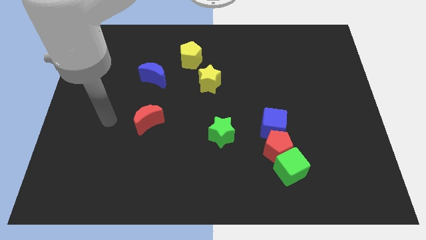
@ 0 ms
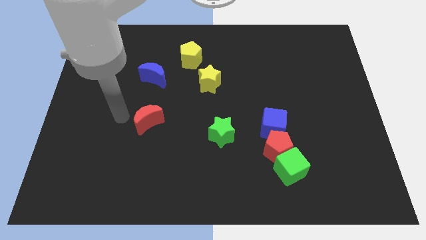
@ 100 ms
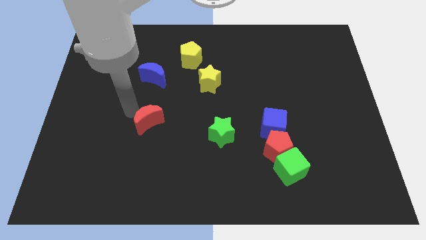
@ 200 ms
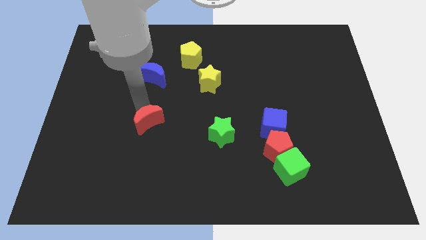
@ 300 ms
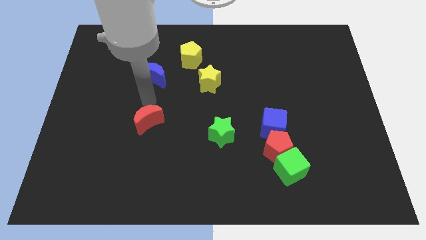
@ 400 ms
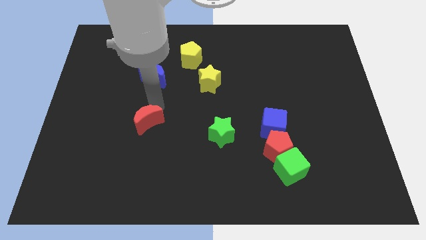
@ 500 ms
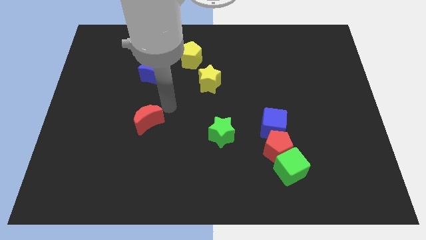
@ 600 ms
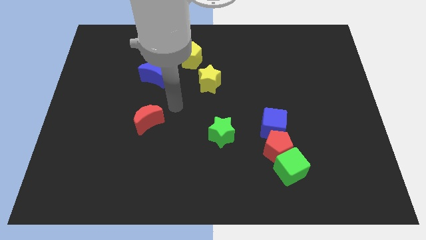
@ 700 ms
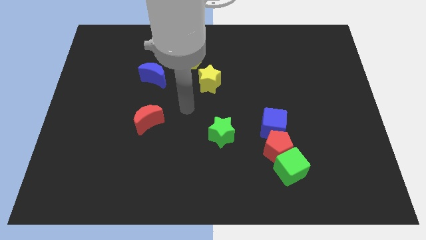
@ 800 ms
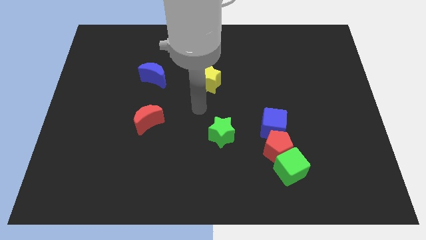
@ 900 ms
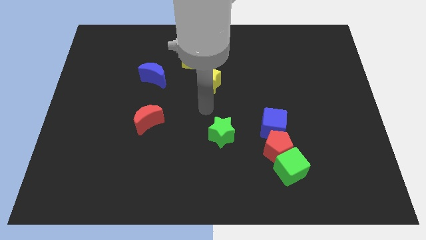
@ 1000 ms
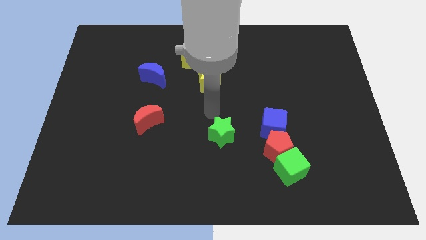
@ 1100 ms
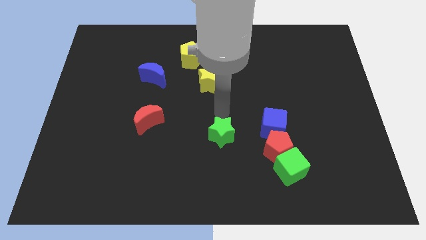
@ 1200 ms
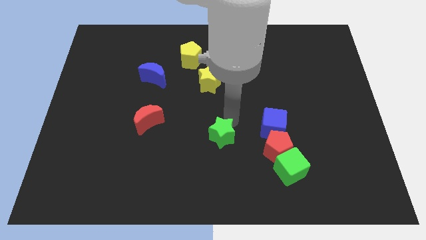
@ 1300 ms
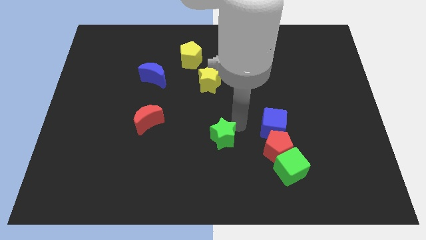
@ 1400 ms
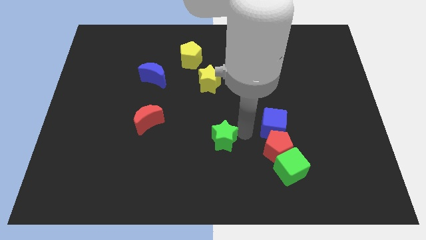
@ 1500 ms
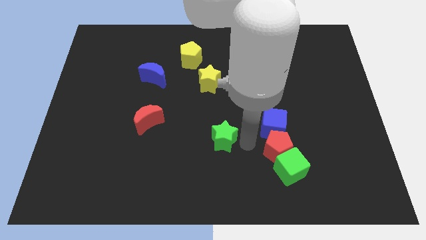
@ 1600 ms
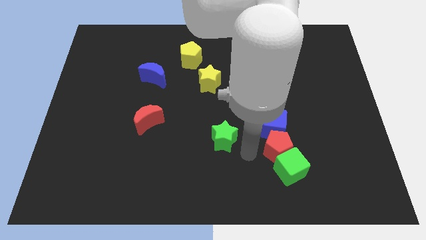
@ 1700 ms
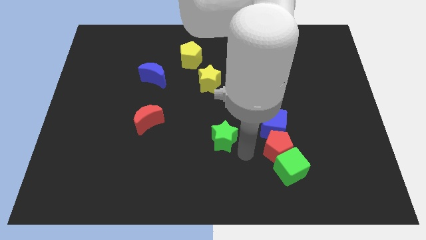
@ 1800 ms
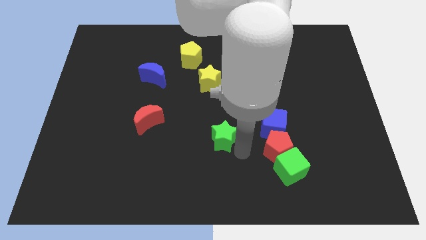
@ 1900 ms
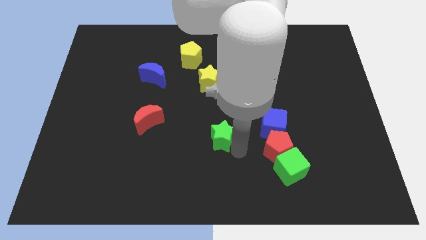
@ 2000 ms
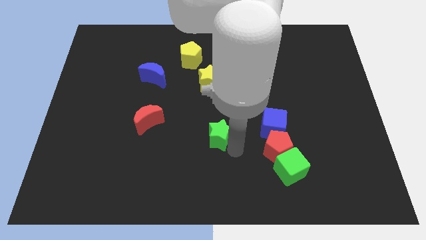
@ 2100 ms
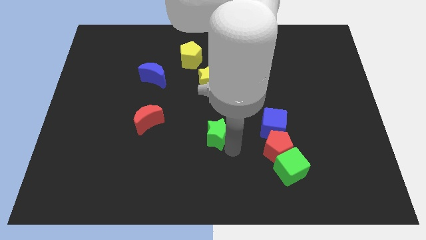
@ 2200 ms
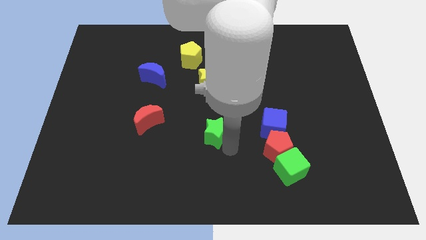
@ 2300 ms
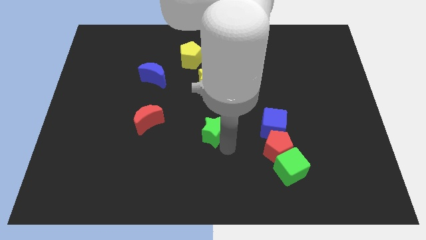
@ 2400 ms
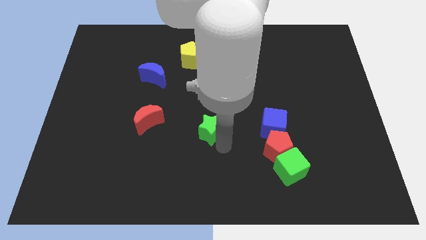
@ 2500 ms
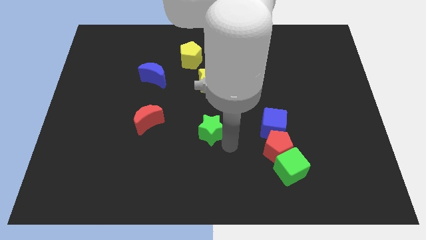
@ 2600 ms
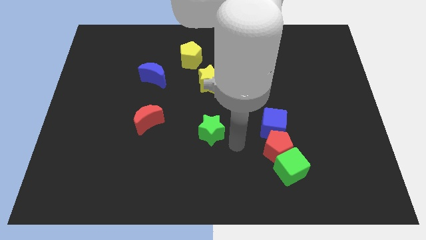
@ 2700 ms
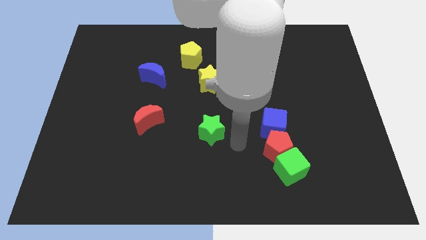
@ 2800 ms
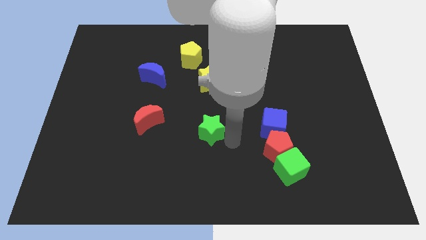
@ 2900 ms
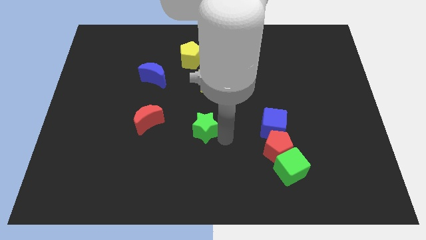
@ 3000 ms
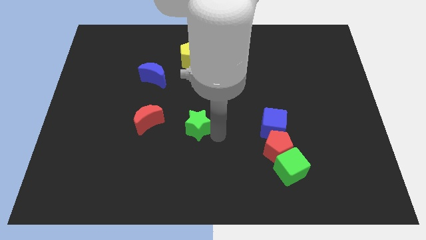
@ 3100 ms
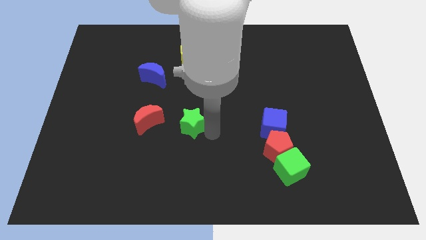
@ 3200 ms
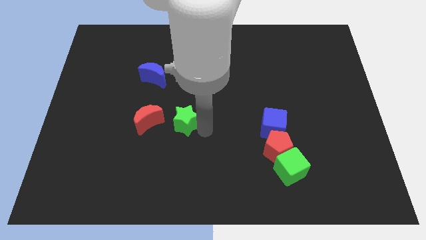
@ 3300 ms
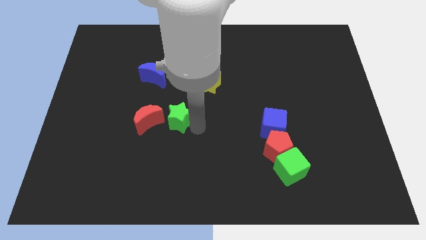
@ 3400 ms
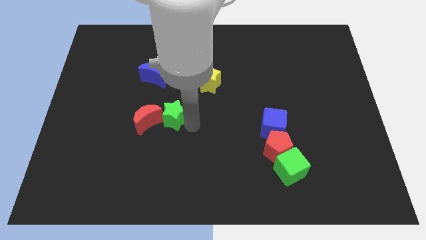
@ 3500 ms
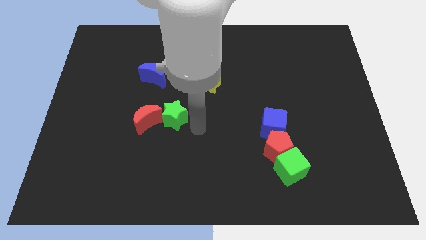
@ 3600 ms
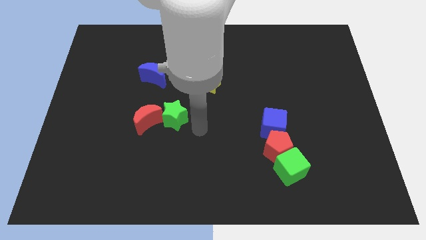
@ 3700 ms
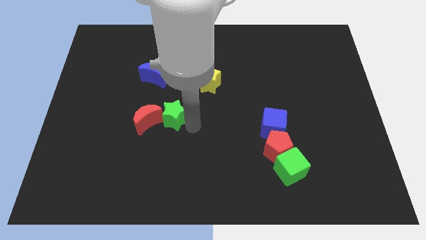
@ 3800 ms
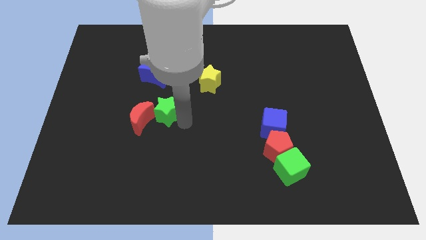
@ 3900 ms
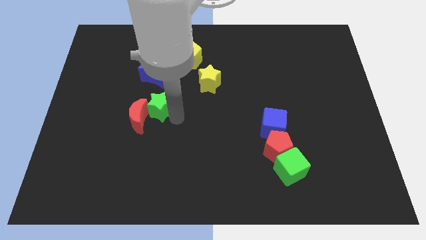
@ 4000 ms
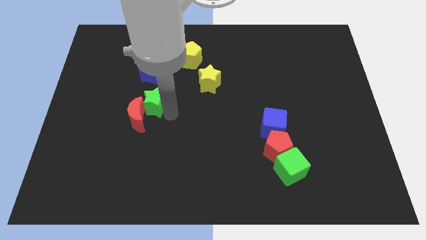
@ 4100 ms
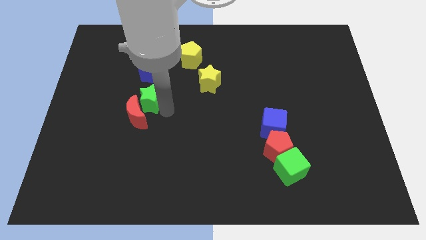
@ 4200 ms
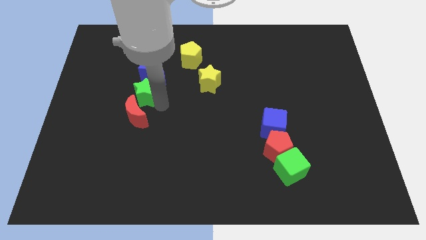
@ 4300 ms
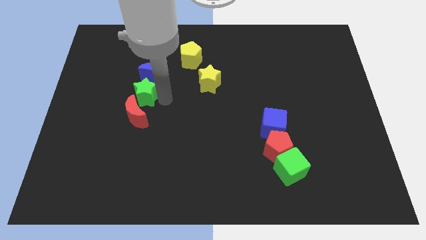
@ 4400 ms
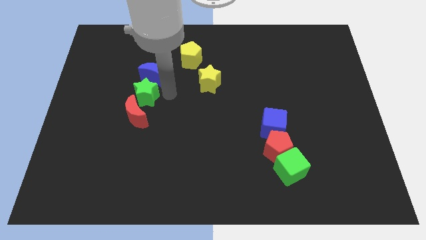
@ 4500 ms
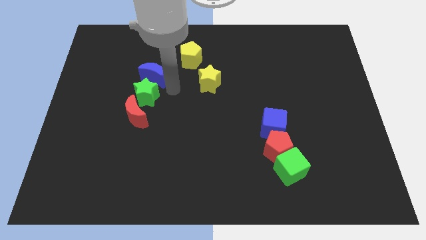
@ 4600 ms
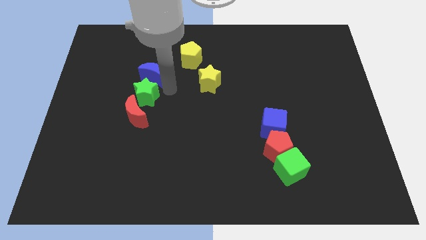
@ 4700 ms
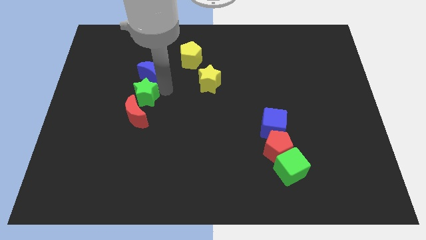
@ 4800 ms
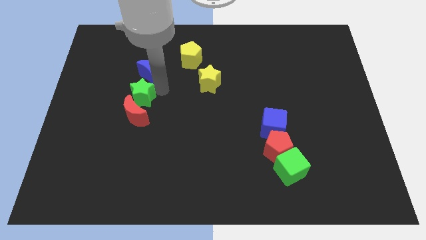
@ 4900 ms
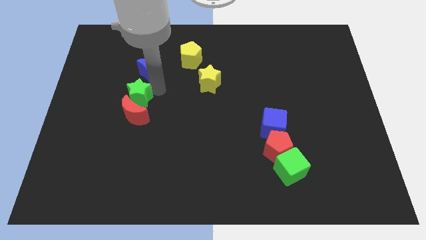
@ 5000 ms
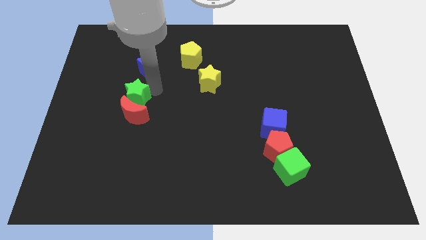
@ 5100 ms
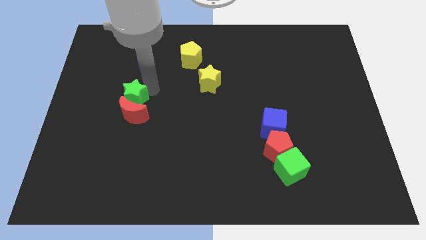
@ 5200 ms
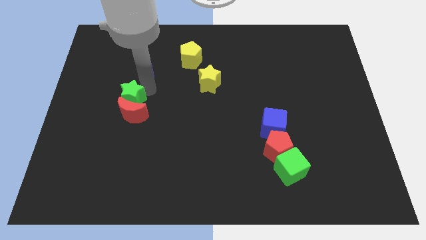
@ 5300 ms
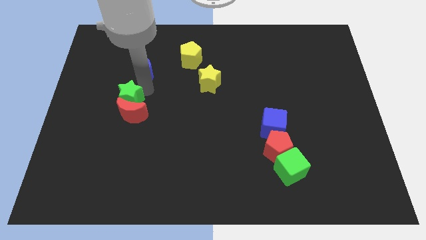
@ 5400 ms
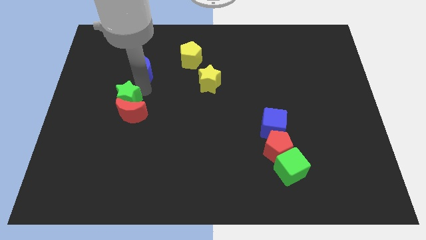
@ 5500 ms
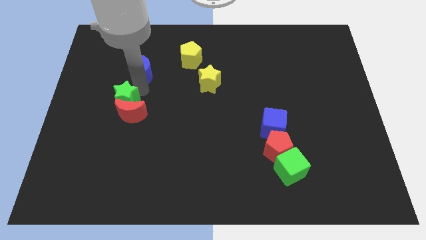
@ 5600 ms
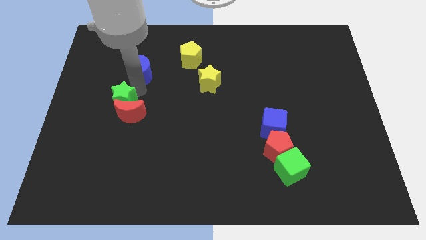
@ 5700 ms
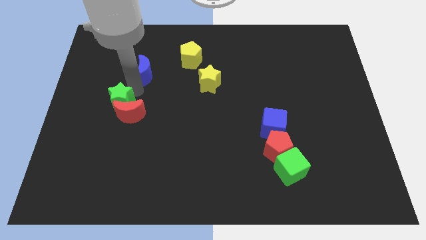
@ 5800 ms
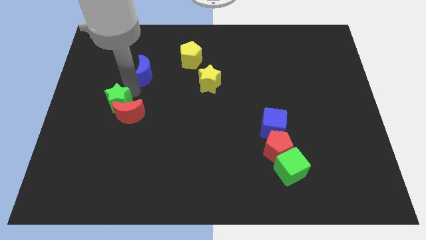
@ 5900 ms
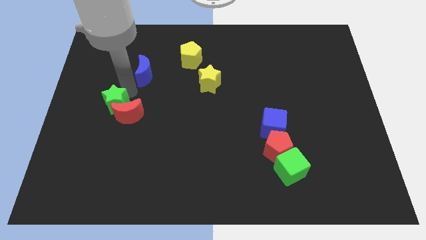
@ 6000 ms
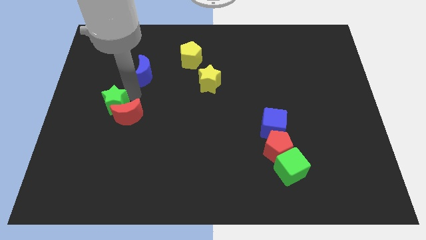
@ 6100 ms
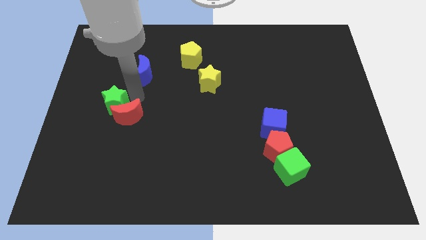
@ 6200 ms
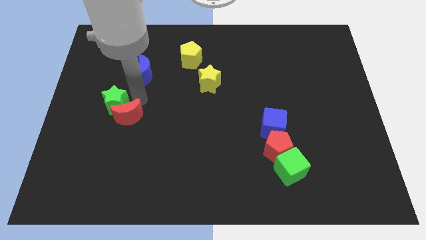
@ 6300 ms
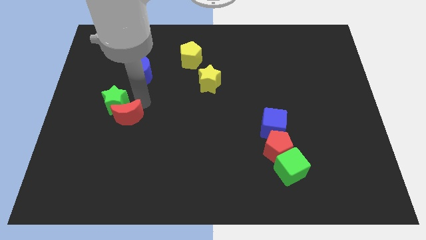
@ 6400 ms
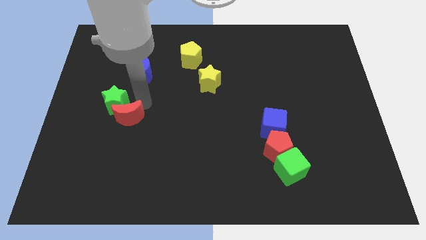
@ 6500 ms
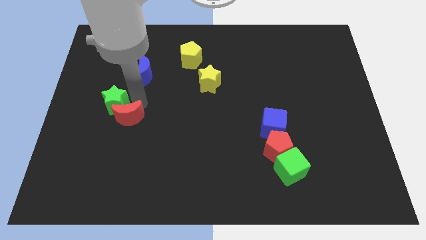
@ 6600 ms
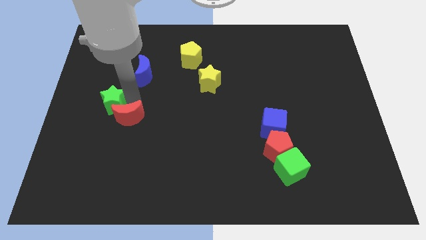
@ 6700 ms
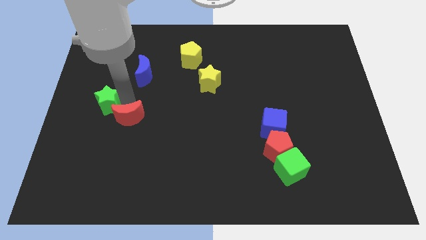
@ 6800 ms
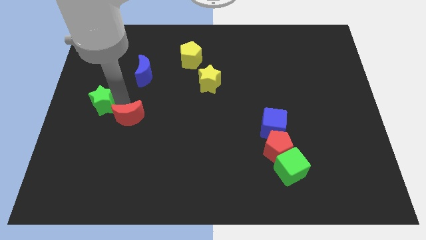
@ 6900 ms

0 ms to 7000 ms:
put the green star to the left side of the board
